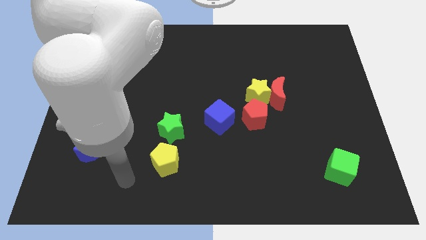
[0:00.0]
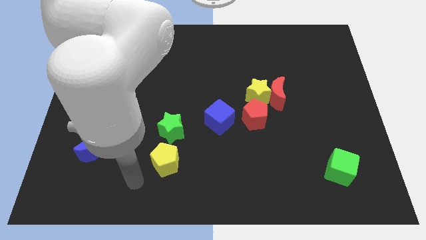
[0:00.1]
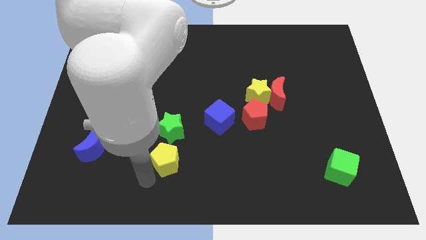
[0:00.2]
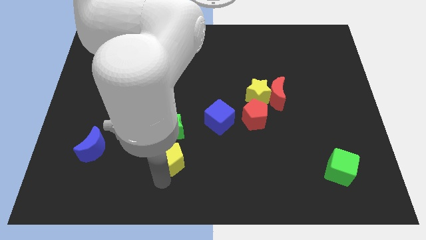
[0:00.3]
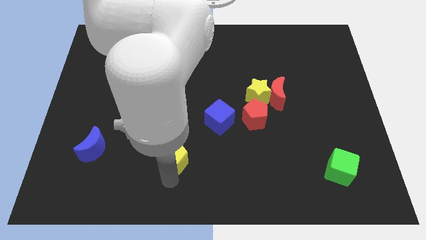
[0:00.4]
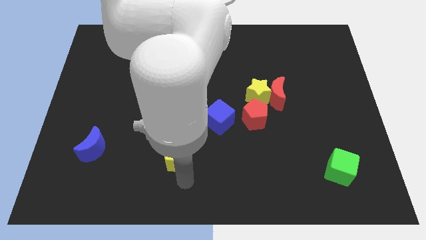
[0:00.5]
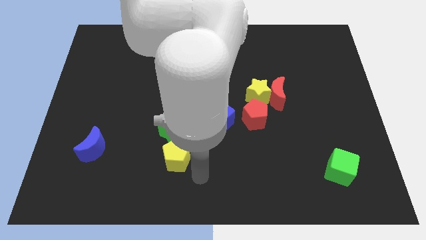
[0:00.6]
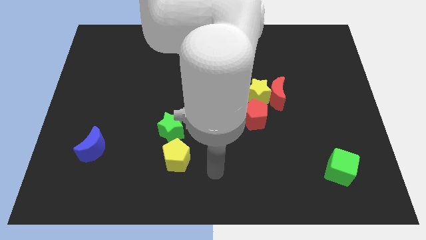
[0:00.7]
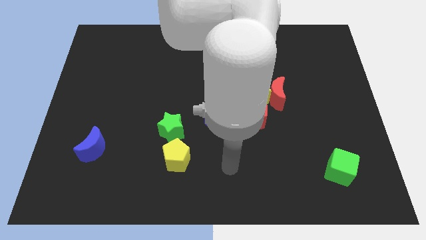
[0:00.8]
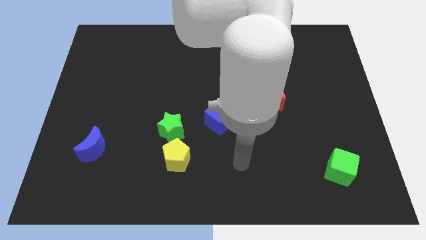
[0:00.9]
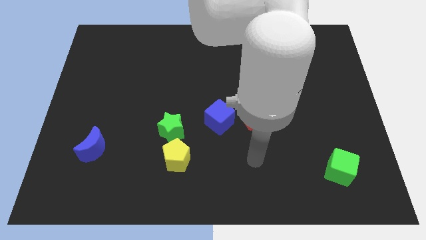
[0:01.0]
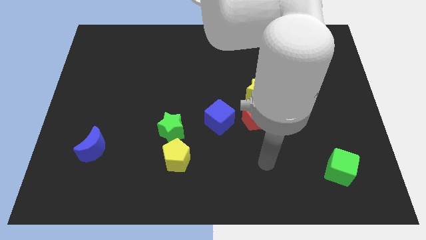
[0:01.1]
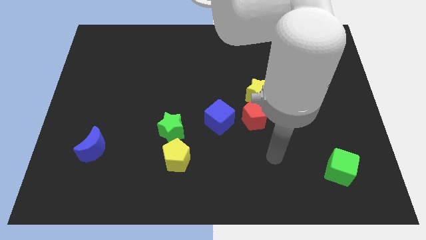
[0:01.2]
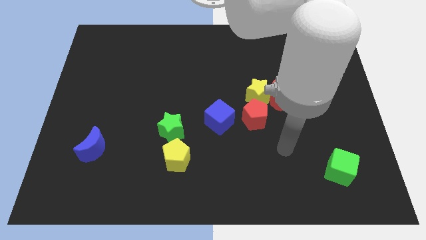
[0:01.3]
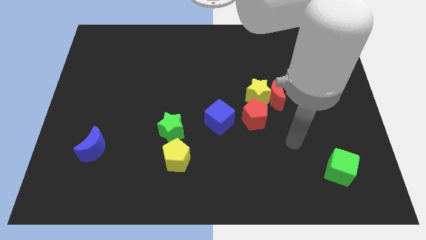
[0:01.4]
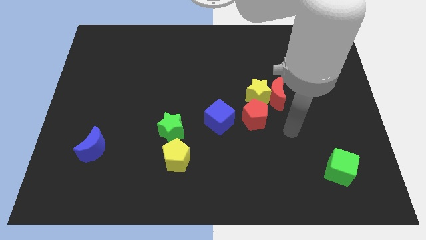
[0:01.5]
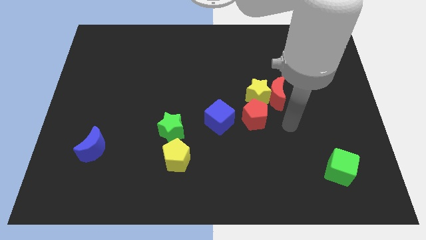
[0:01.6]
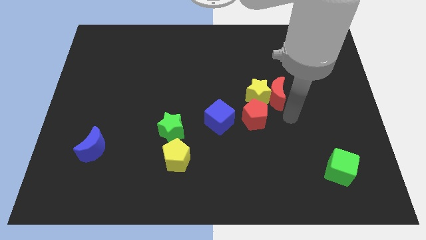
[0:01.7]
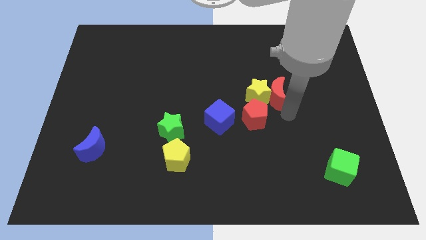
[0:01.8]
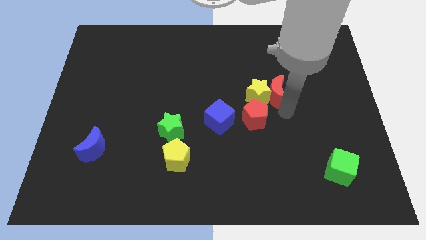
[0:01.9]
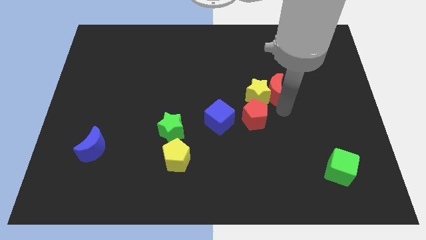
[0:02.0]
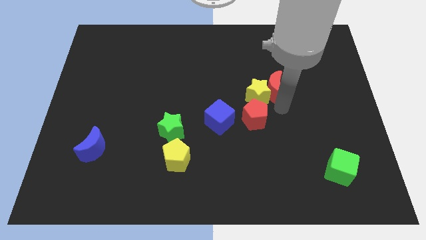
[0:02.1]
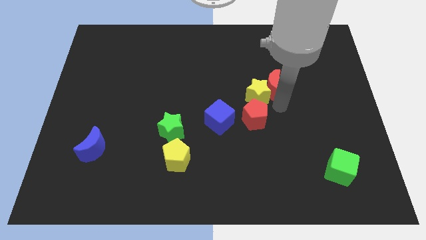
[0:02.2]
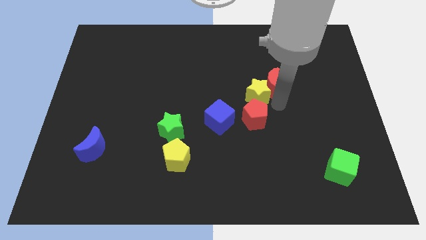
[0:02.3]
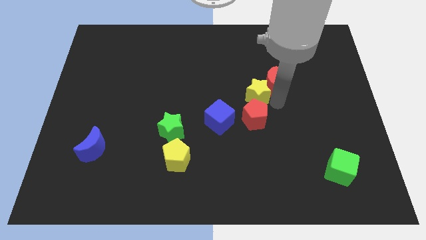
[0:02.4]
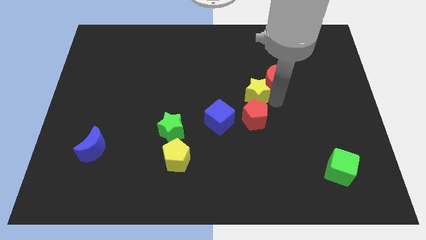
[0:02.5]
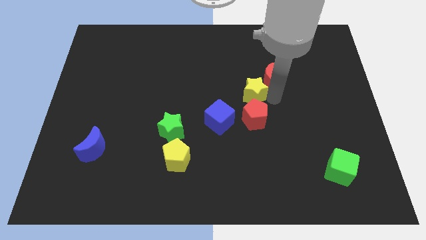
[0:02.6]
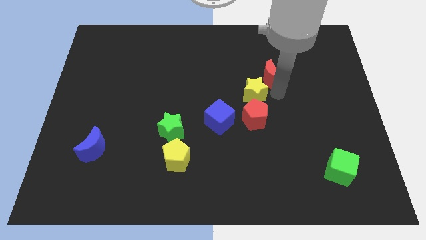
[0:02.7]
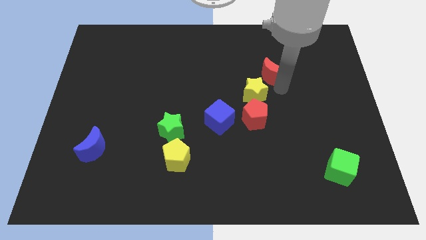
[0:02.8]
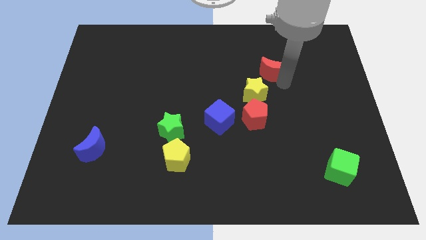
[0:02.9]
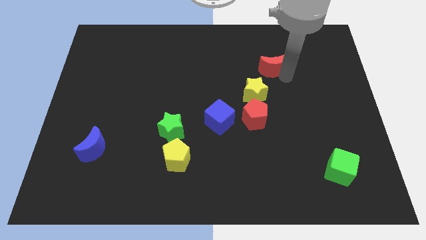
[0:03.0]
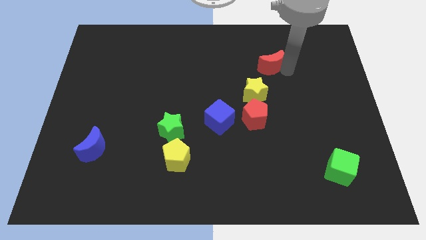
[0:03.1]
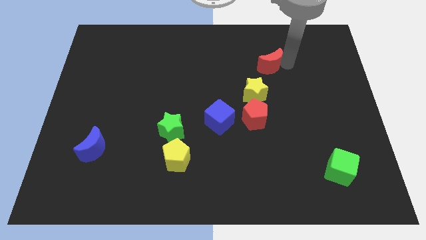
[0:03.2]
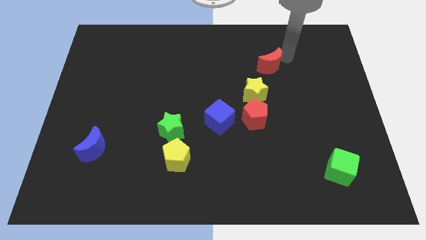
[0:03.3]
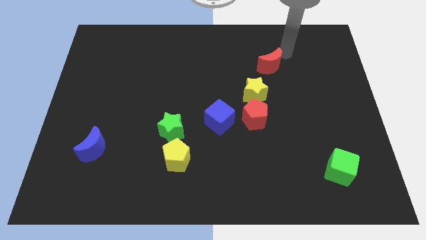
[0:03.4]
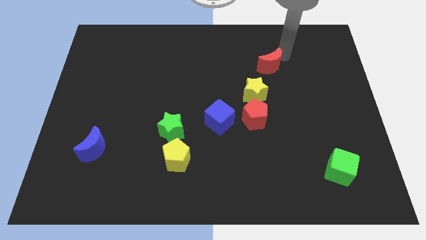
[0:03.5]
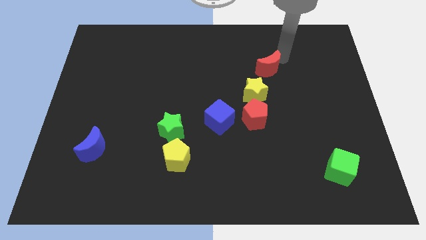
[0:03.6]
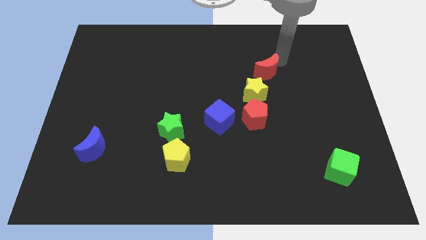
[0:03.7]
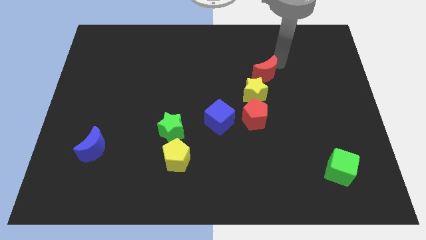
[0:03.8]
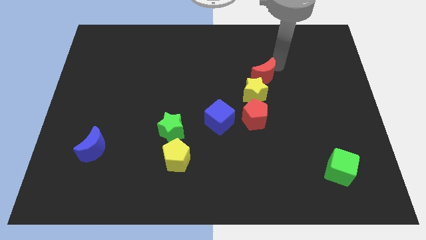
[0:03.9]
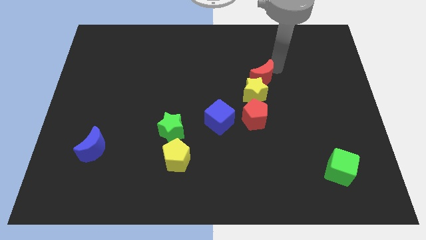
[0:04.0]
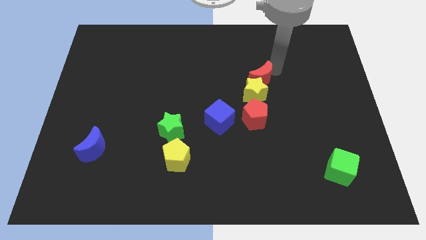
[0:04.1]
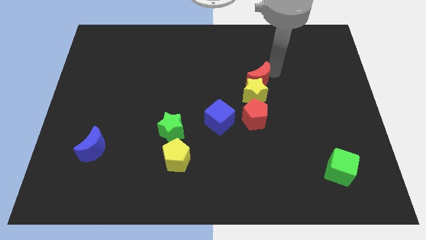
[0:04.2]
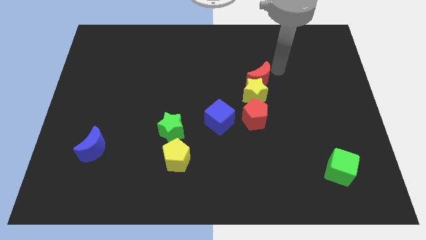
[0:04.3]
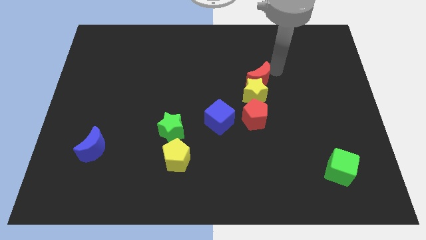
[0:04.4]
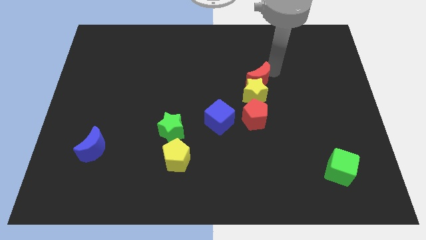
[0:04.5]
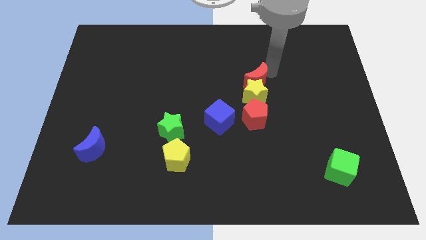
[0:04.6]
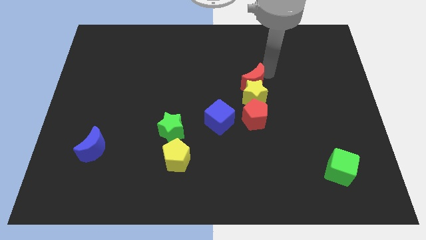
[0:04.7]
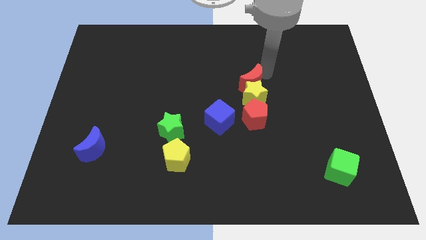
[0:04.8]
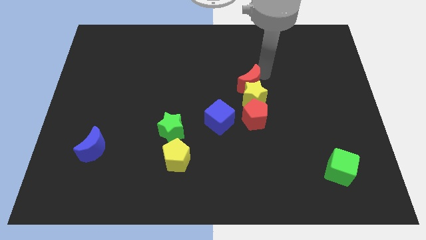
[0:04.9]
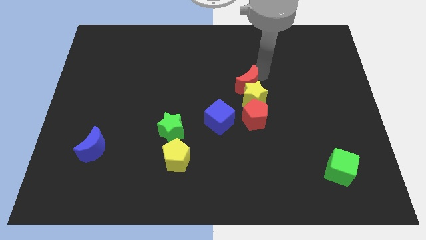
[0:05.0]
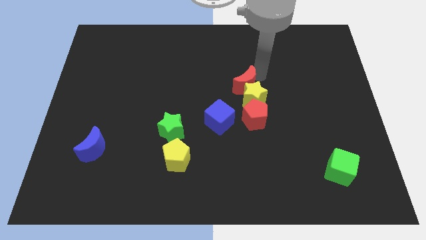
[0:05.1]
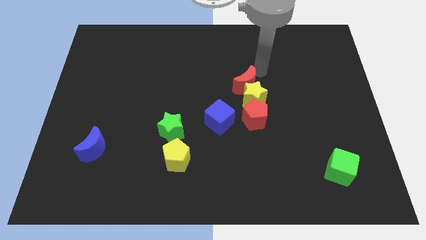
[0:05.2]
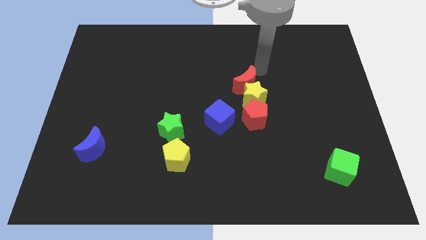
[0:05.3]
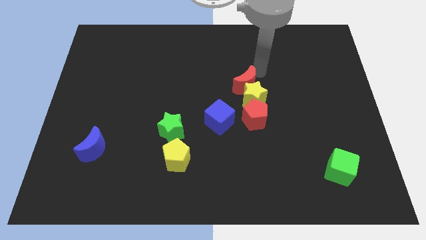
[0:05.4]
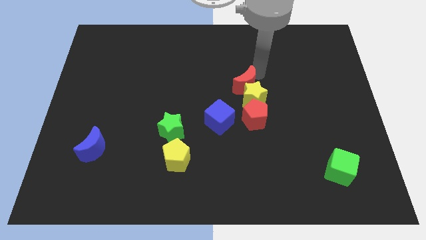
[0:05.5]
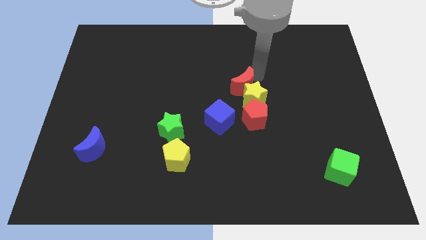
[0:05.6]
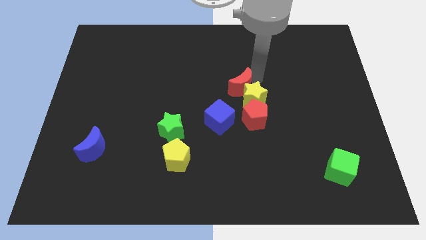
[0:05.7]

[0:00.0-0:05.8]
slide the red moon to the top left side of the red pentagon

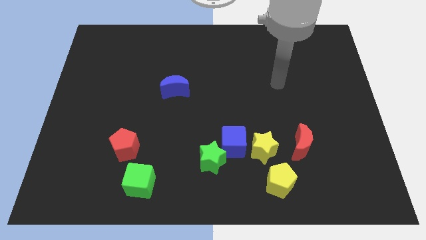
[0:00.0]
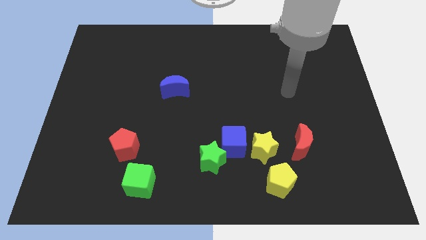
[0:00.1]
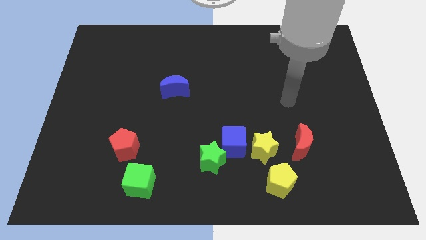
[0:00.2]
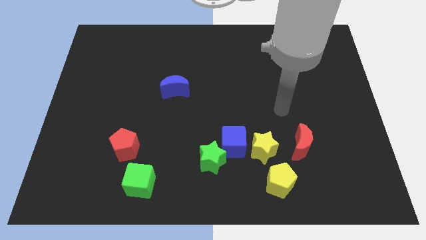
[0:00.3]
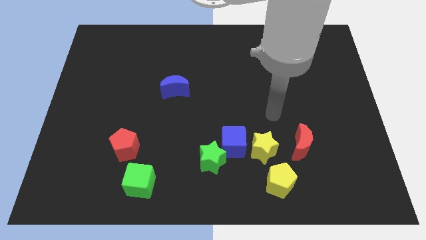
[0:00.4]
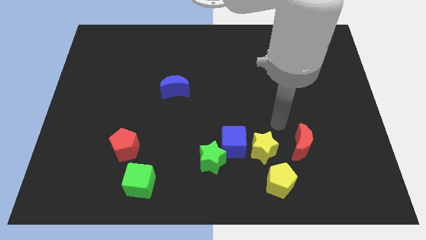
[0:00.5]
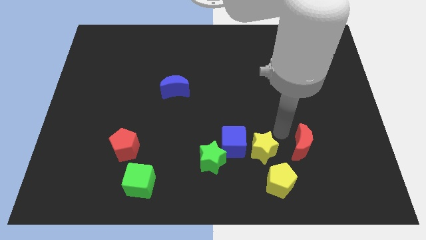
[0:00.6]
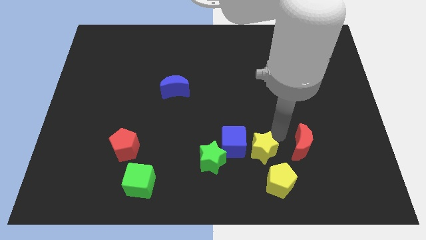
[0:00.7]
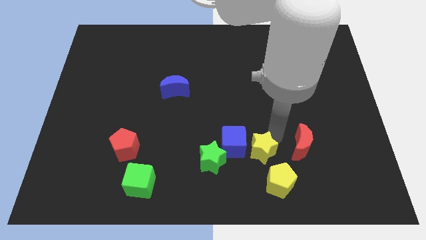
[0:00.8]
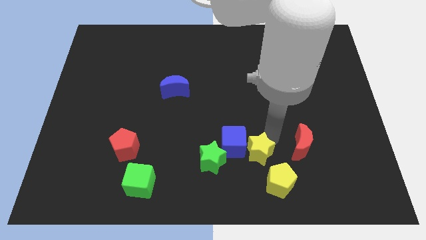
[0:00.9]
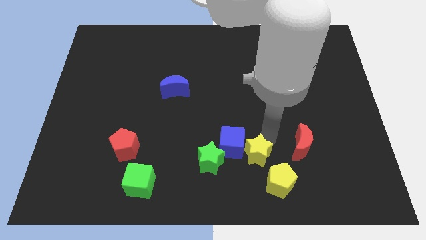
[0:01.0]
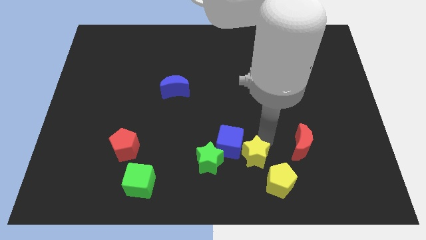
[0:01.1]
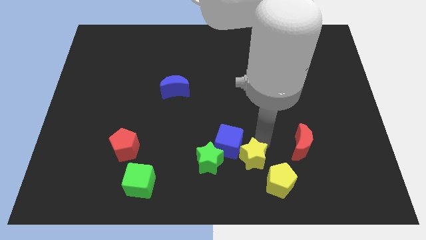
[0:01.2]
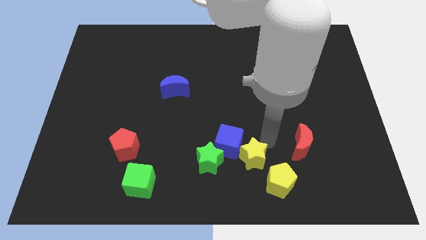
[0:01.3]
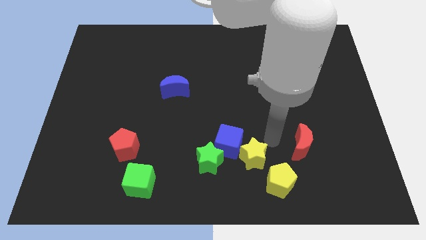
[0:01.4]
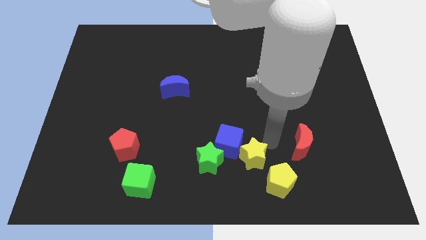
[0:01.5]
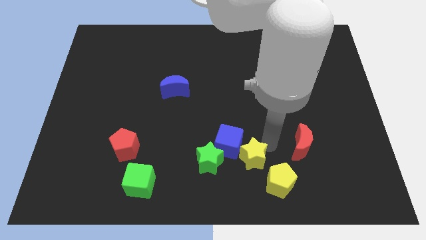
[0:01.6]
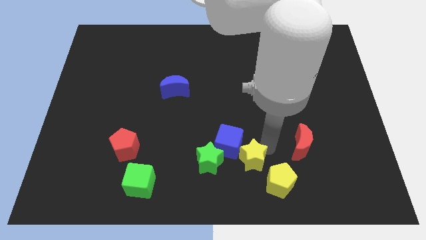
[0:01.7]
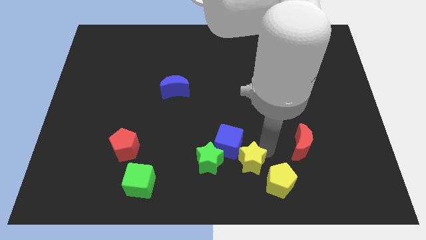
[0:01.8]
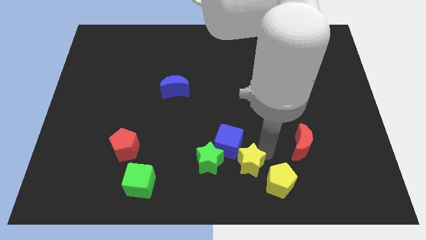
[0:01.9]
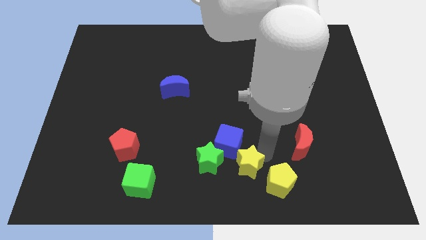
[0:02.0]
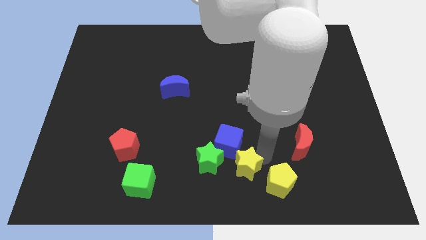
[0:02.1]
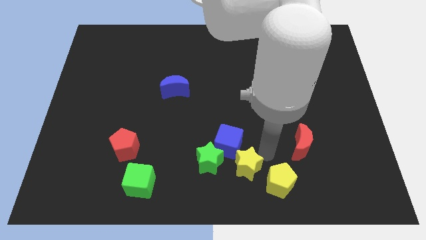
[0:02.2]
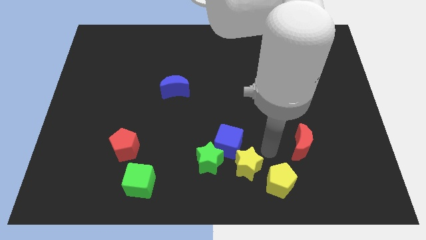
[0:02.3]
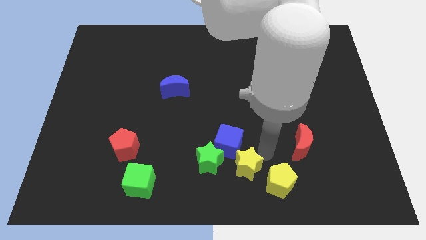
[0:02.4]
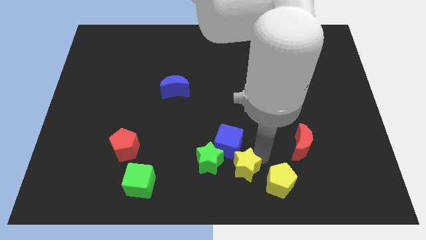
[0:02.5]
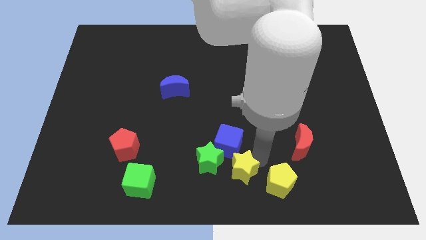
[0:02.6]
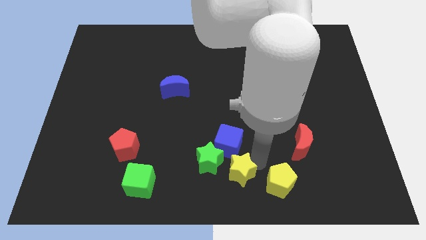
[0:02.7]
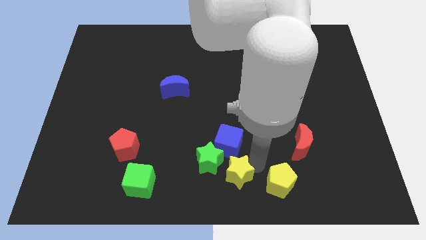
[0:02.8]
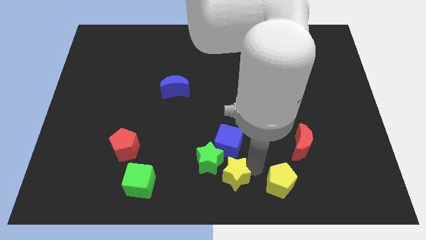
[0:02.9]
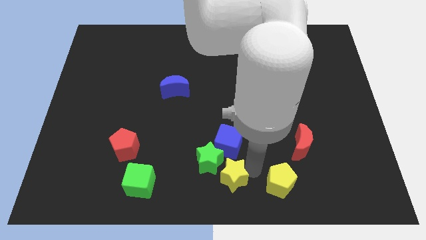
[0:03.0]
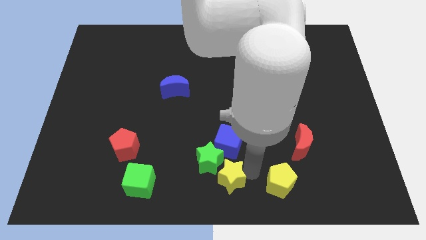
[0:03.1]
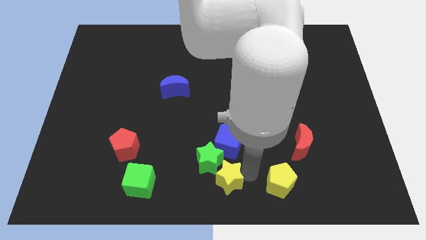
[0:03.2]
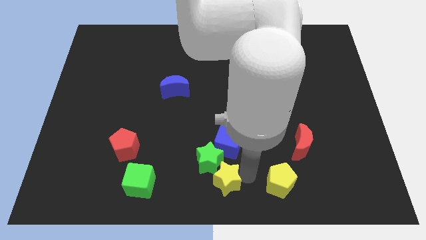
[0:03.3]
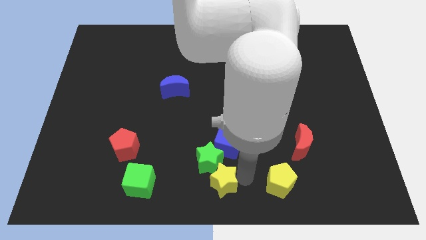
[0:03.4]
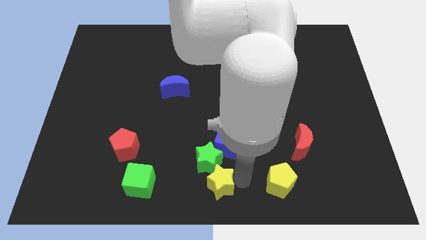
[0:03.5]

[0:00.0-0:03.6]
push the yellow star to the right of the green cube
